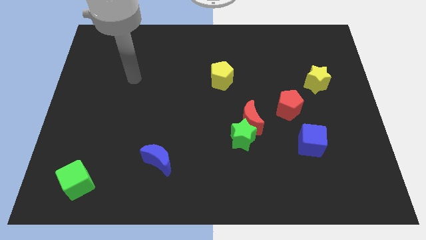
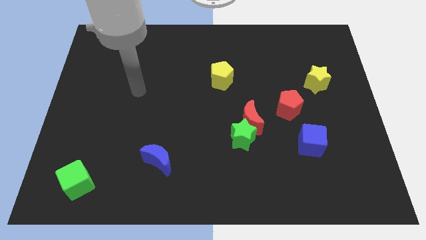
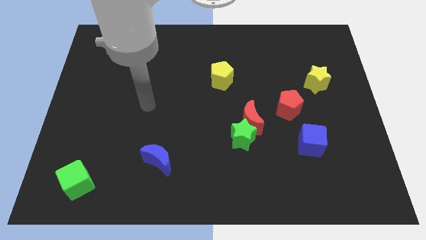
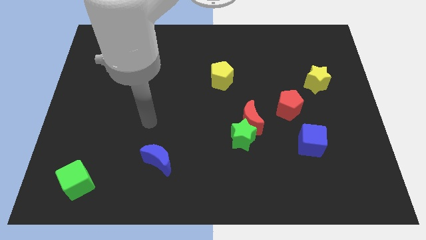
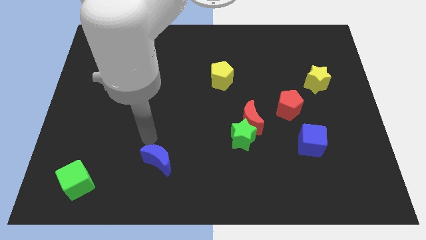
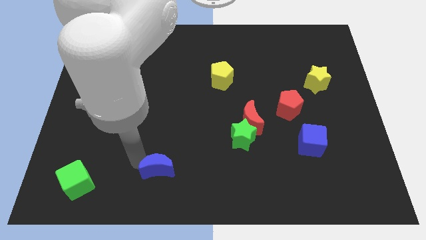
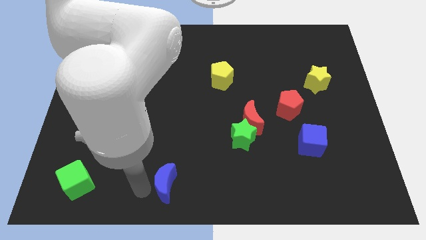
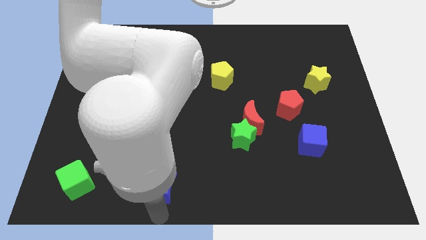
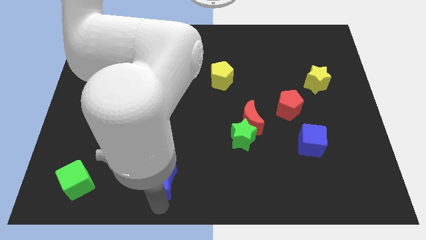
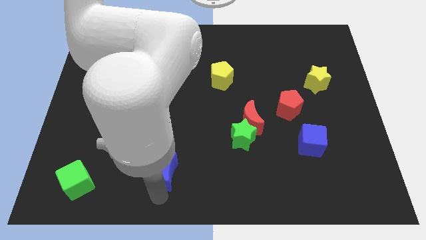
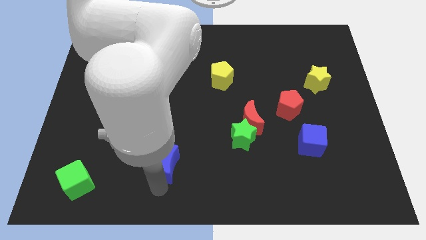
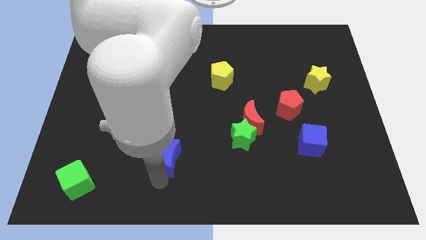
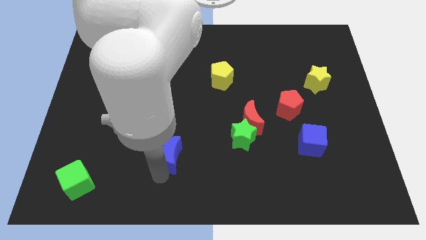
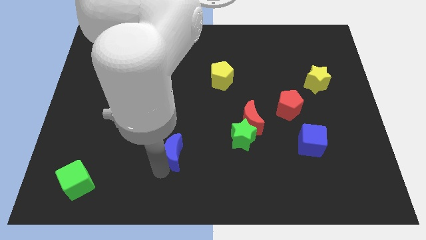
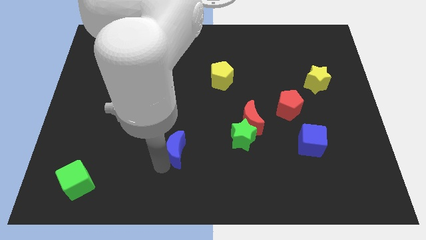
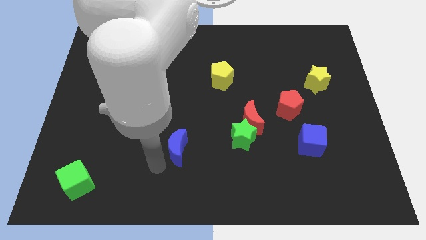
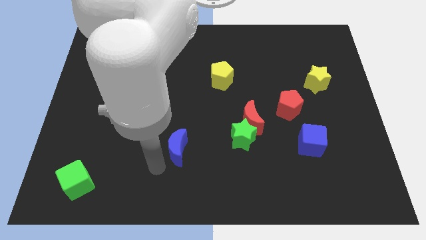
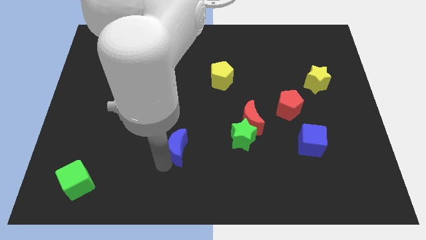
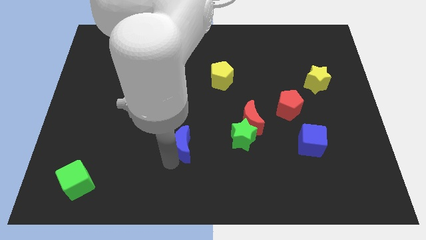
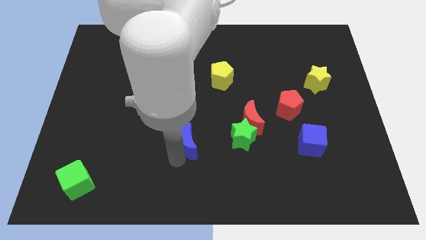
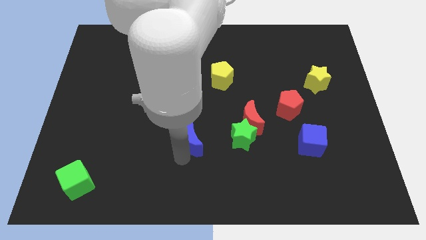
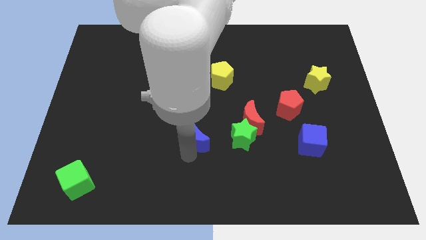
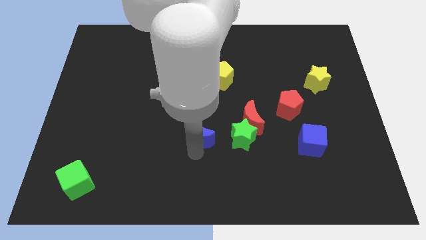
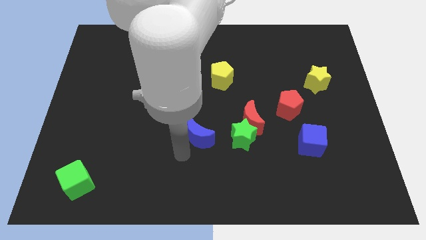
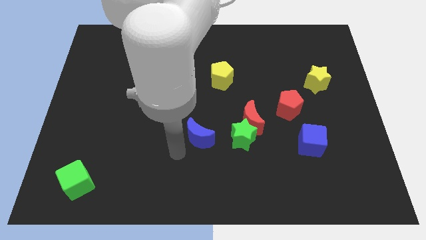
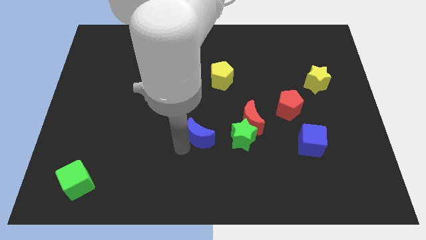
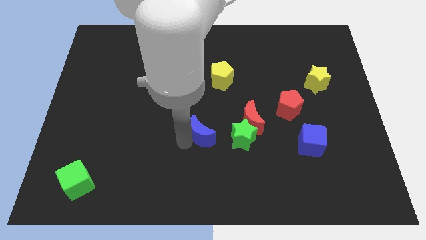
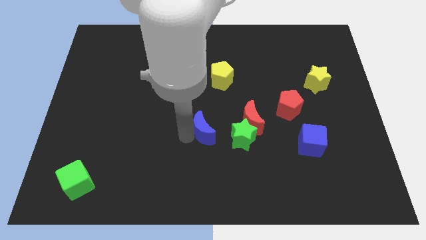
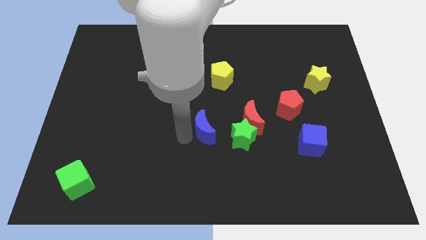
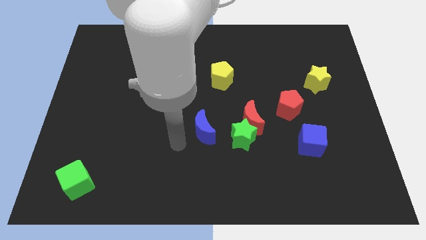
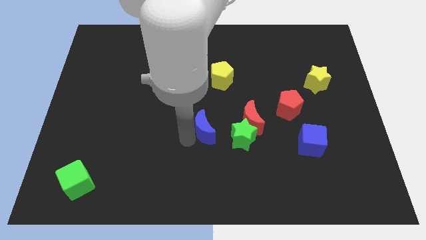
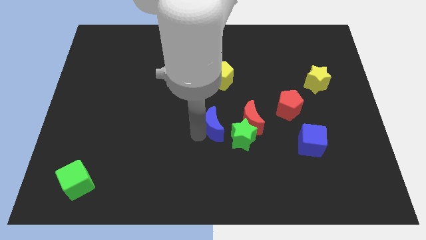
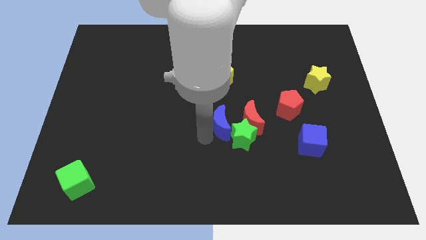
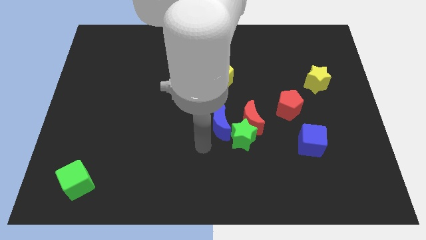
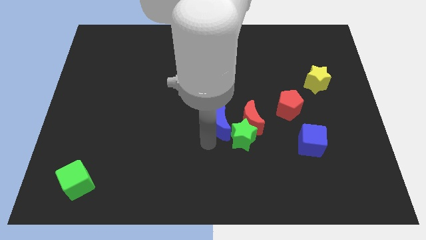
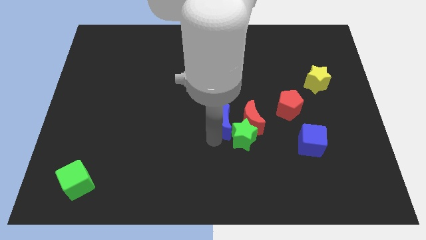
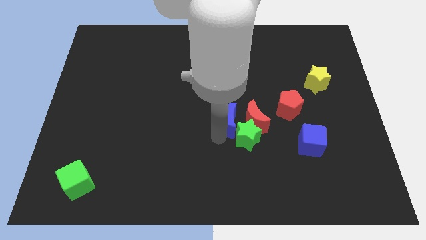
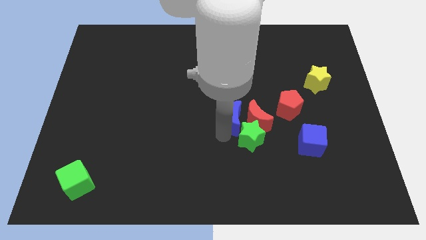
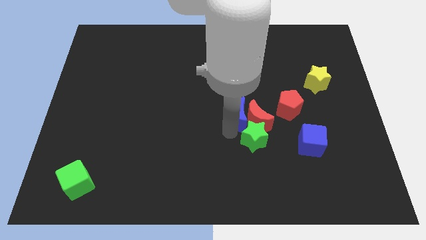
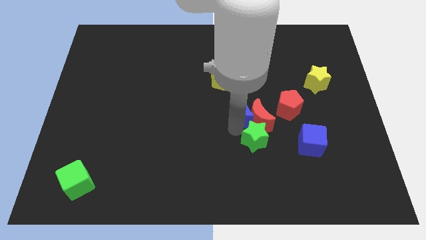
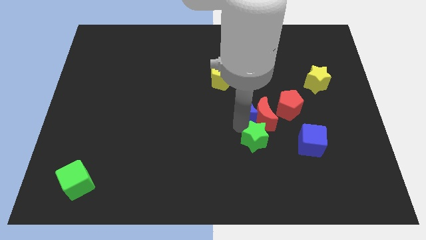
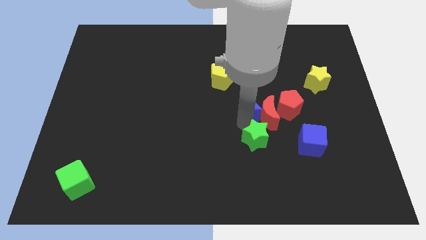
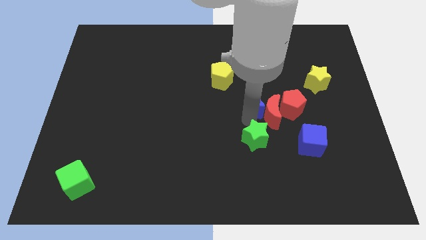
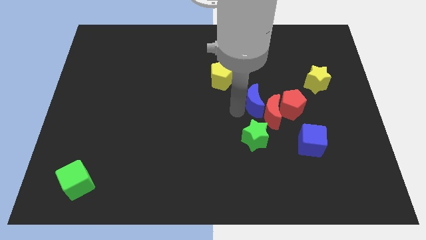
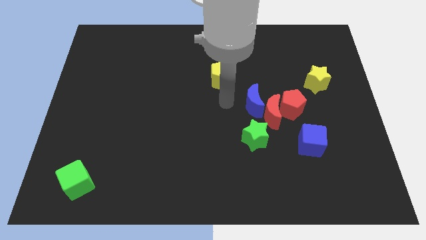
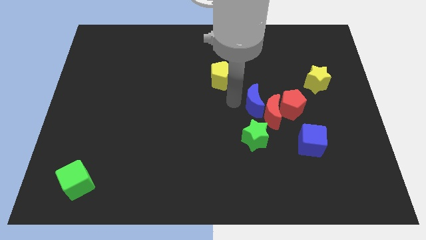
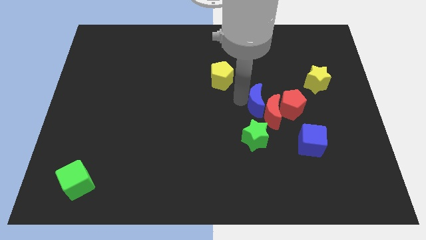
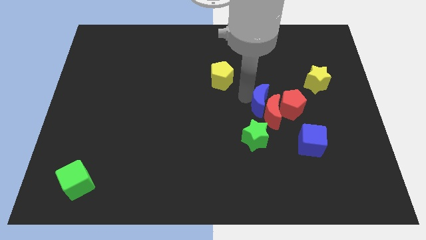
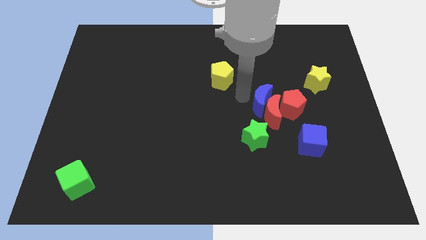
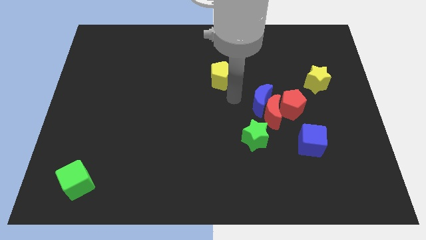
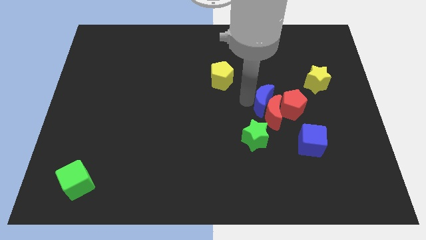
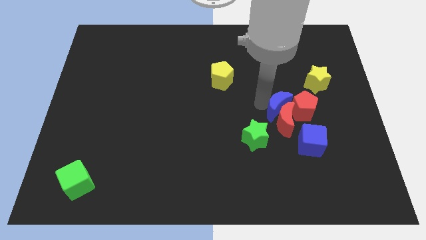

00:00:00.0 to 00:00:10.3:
push the blue moon towards the red pentagon

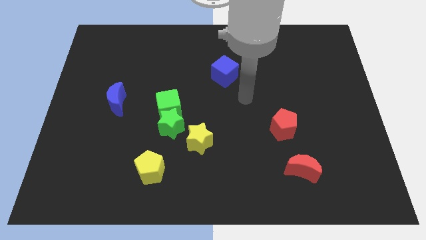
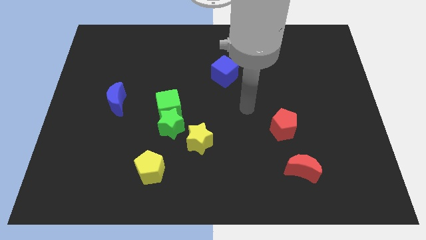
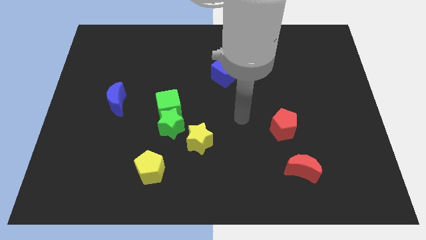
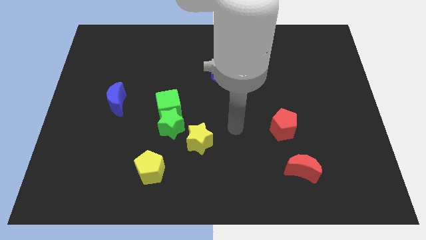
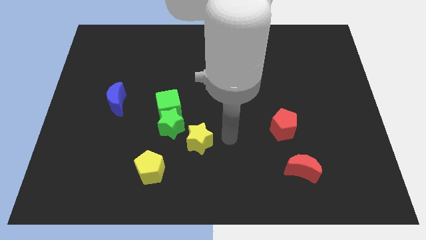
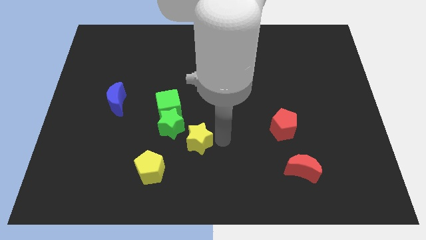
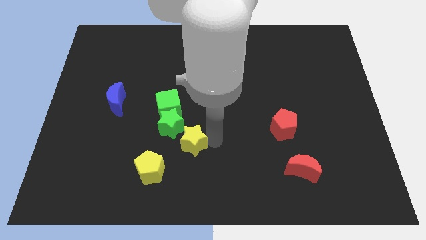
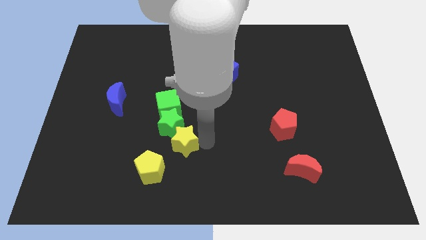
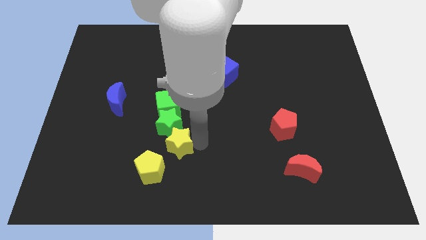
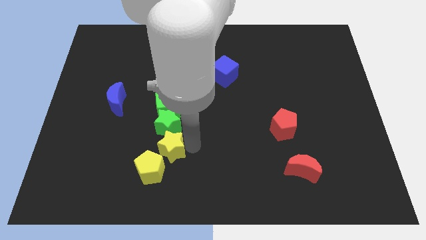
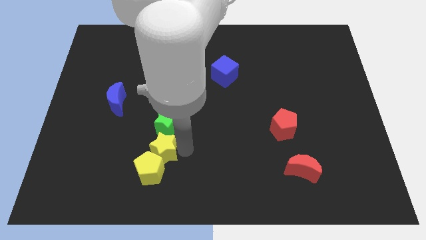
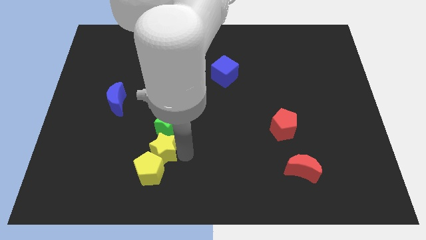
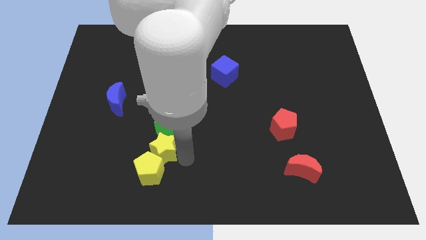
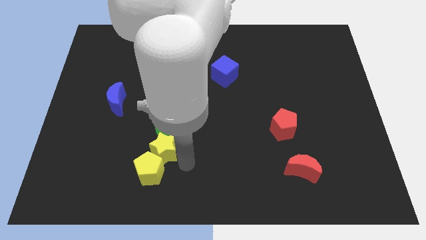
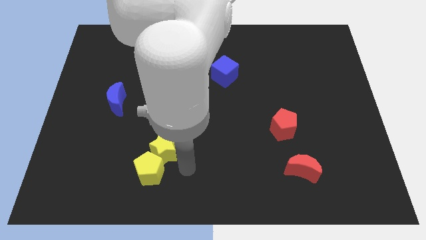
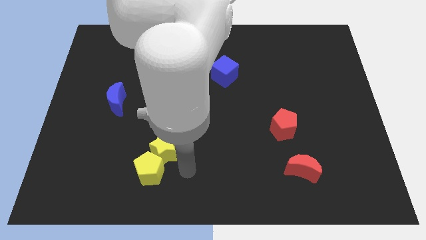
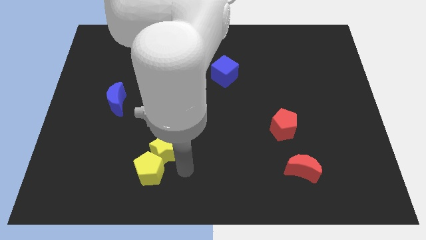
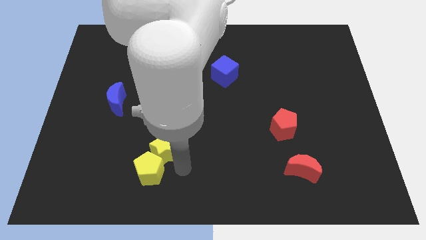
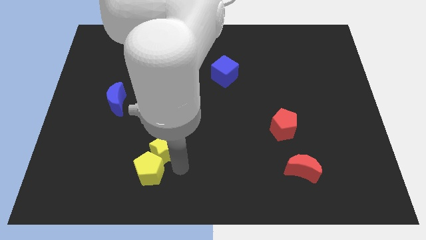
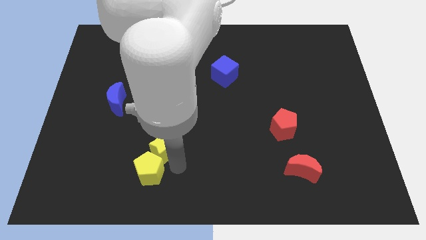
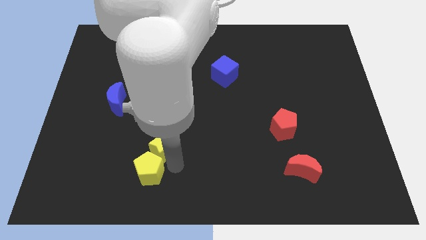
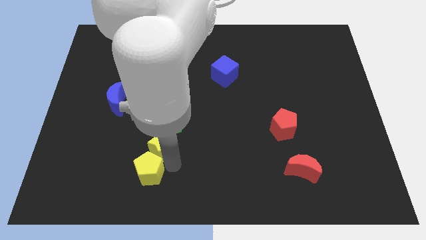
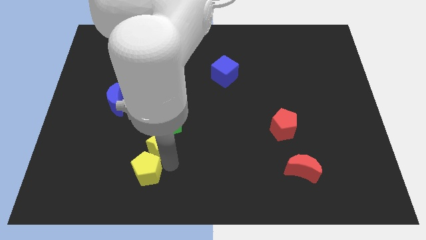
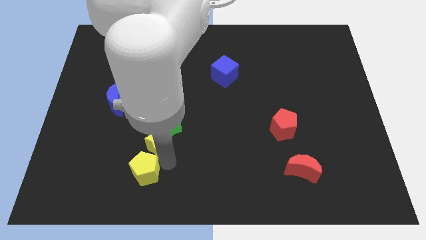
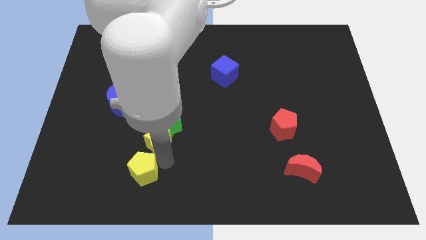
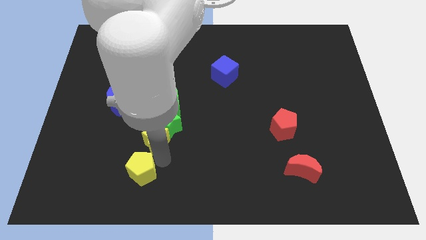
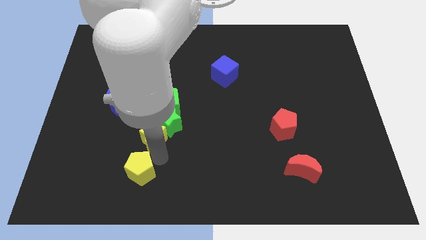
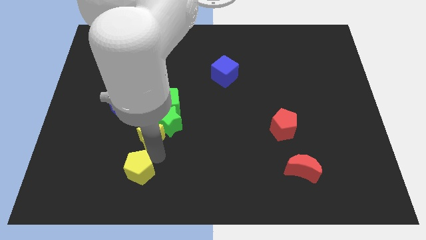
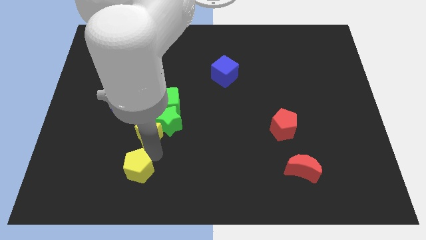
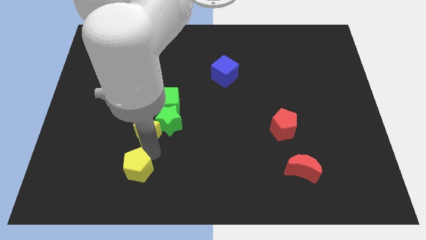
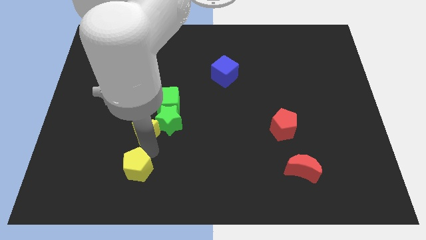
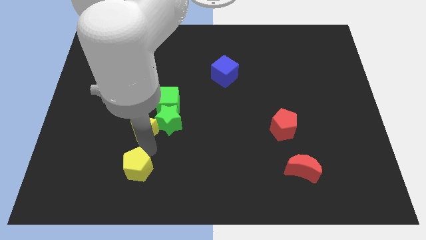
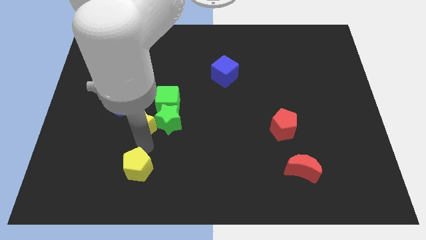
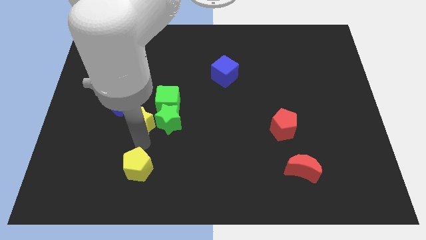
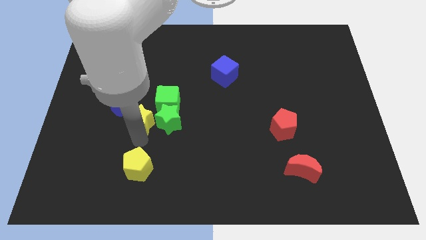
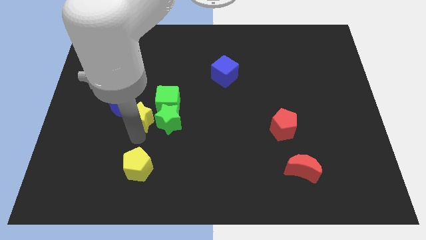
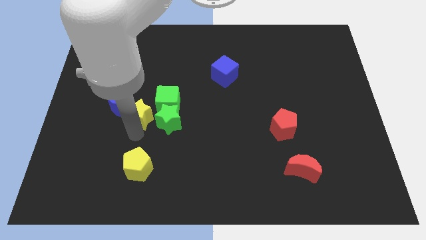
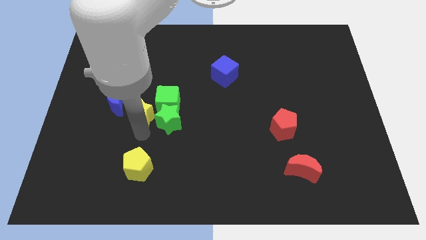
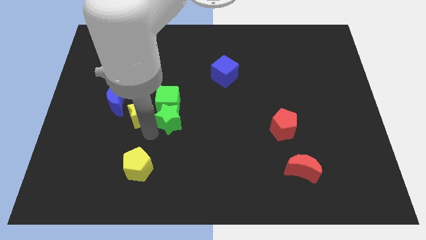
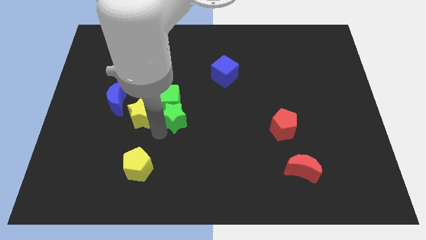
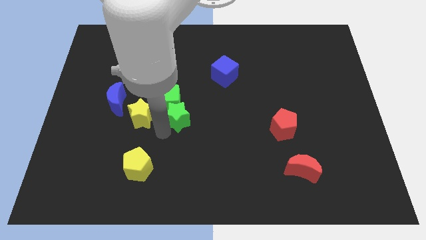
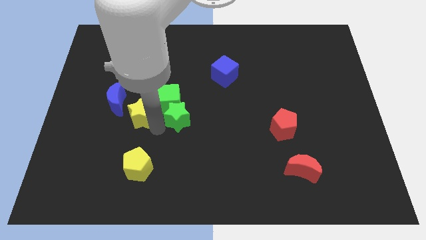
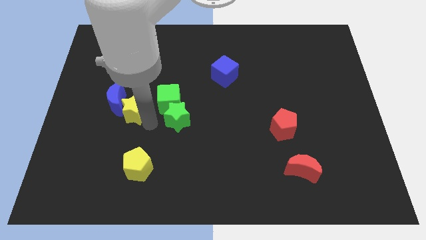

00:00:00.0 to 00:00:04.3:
slide the yellow star next to the blue moon
